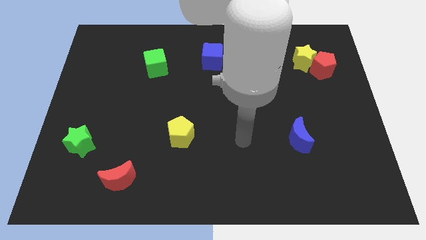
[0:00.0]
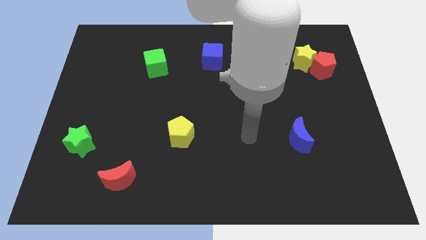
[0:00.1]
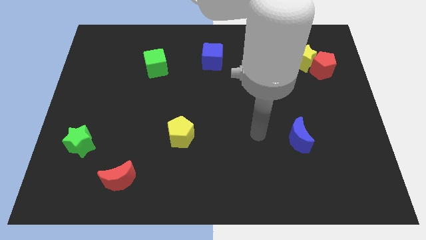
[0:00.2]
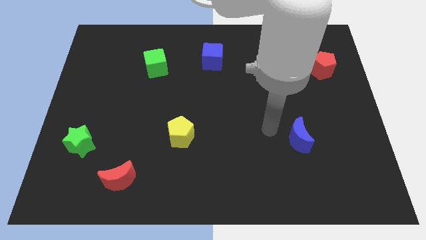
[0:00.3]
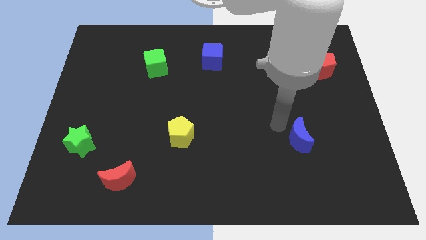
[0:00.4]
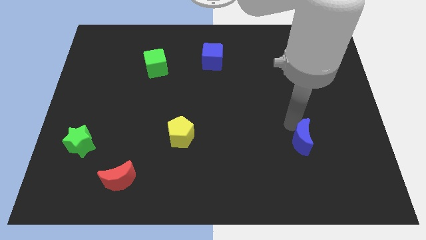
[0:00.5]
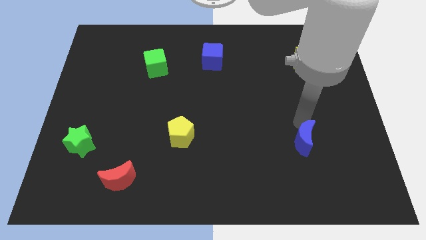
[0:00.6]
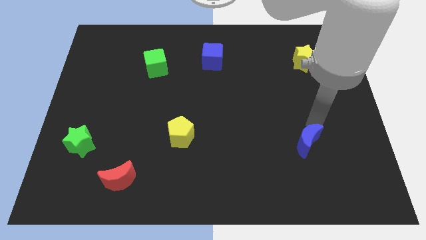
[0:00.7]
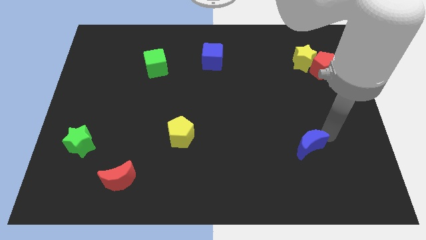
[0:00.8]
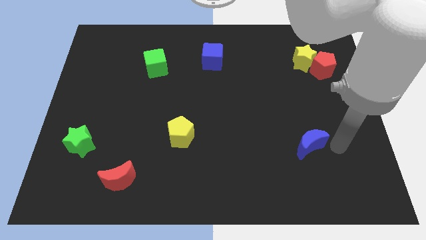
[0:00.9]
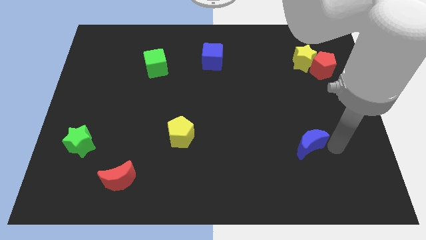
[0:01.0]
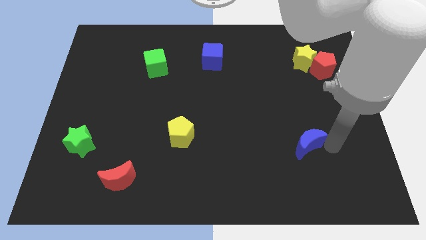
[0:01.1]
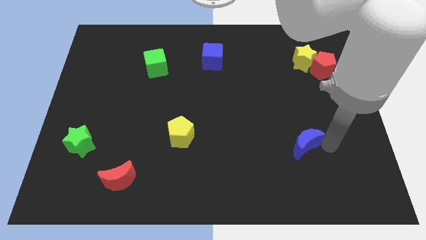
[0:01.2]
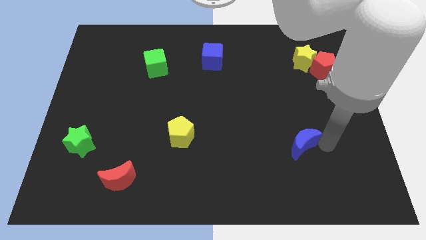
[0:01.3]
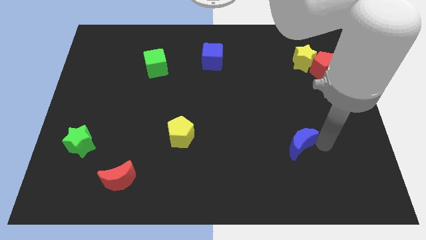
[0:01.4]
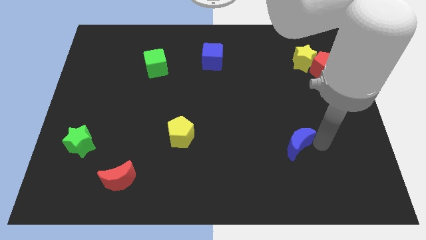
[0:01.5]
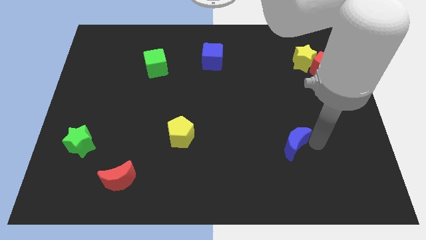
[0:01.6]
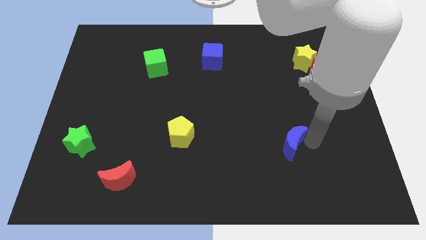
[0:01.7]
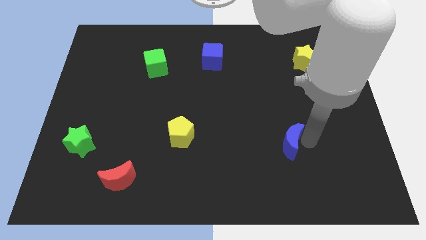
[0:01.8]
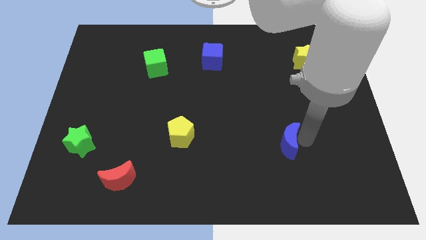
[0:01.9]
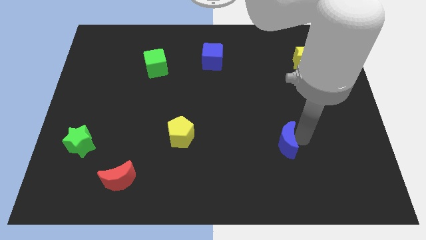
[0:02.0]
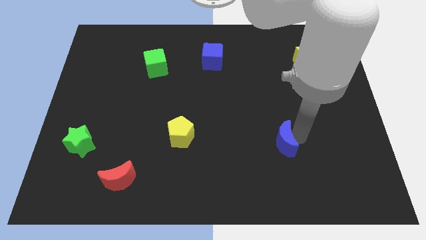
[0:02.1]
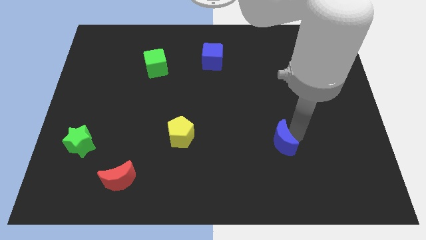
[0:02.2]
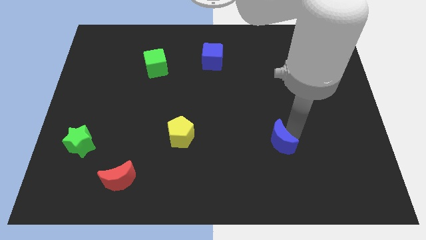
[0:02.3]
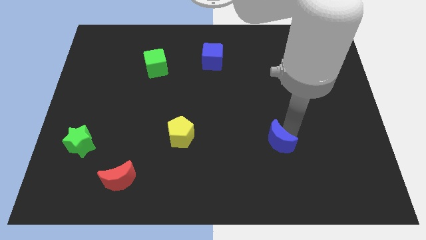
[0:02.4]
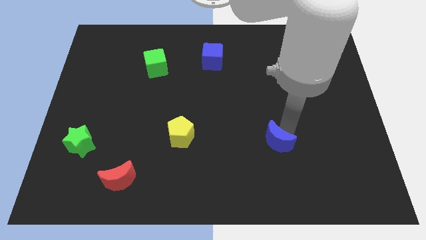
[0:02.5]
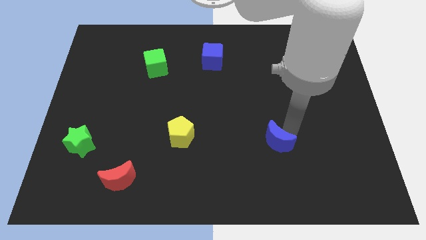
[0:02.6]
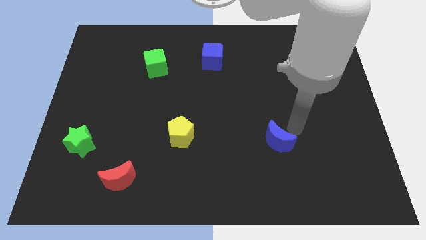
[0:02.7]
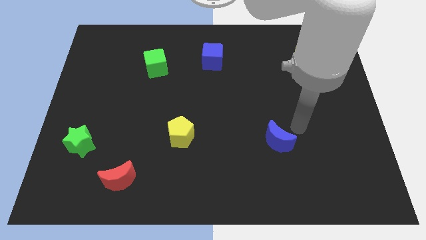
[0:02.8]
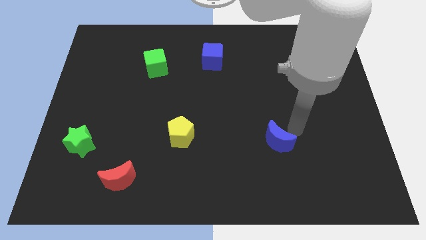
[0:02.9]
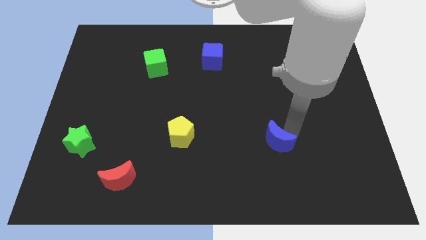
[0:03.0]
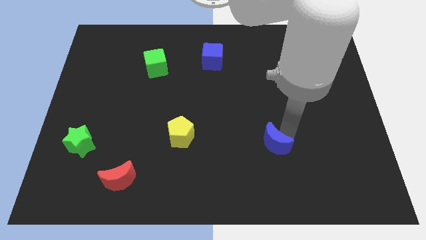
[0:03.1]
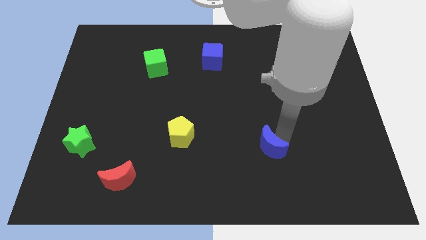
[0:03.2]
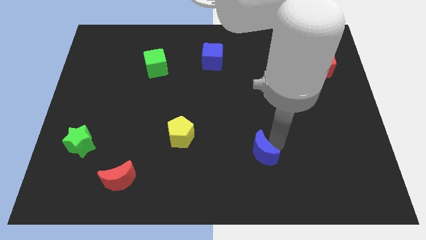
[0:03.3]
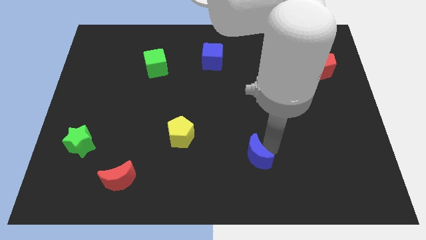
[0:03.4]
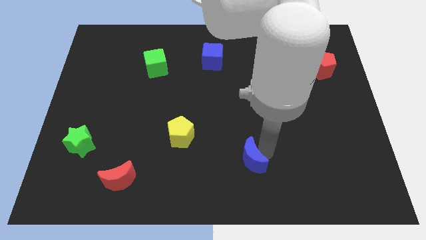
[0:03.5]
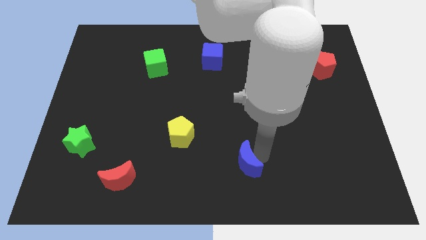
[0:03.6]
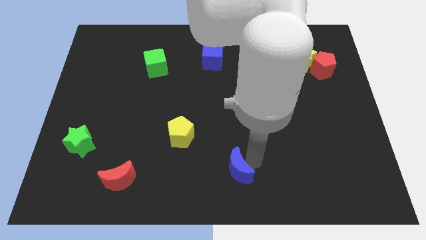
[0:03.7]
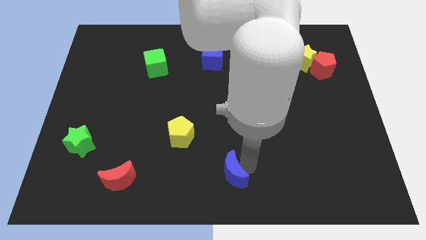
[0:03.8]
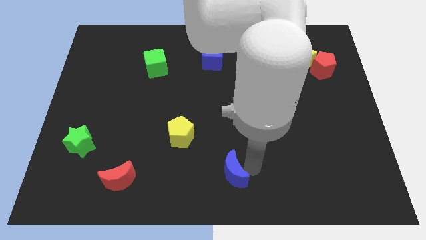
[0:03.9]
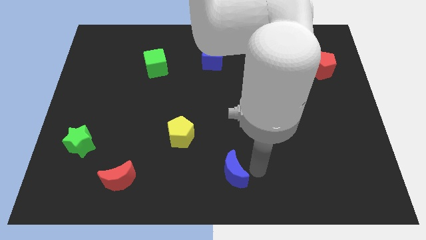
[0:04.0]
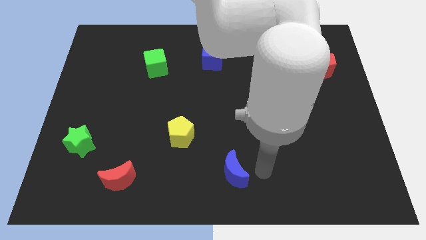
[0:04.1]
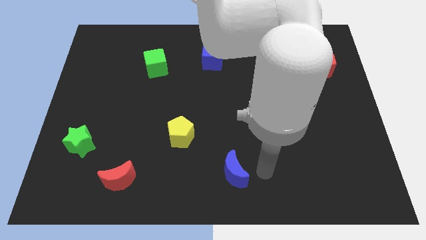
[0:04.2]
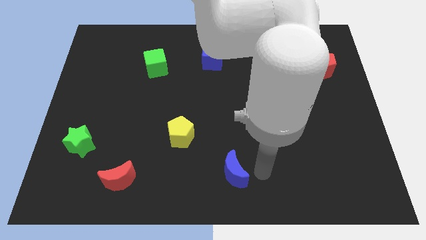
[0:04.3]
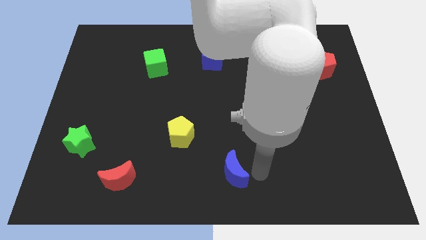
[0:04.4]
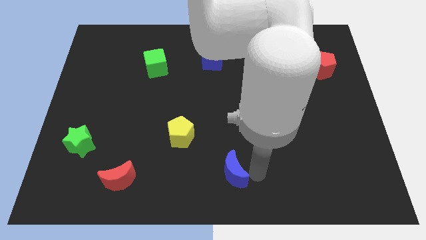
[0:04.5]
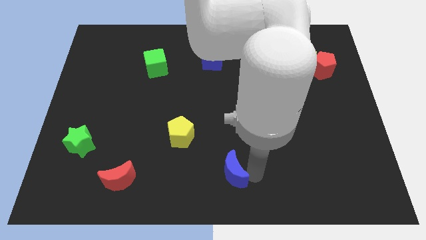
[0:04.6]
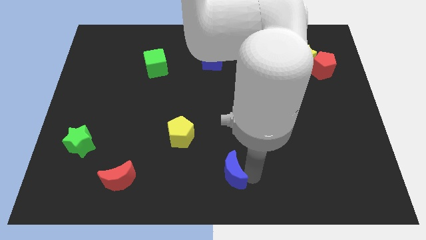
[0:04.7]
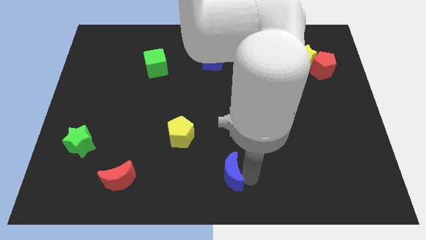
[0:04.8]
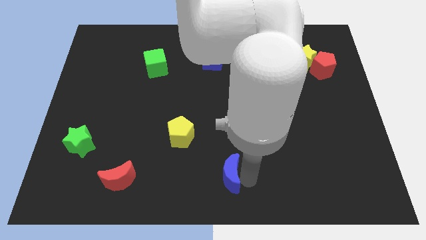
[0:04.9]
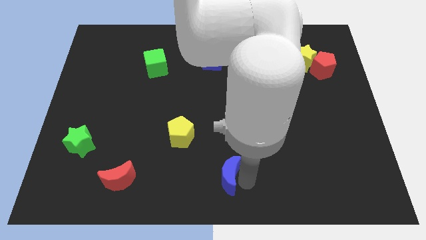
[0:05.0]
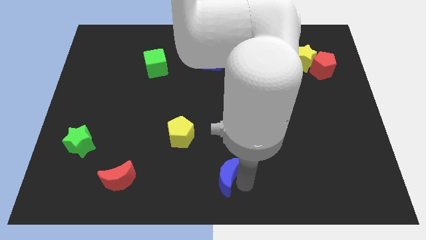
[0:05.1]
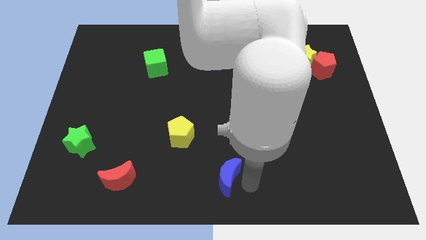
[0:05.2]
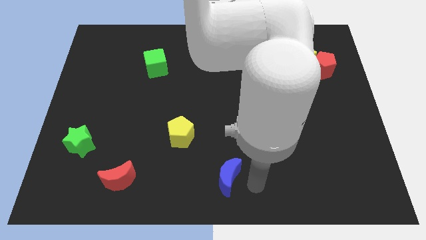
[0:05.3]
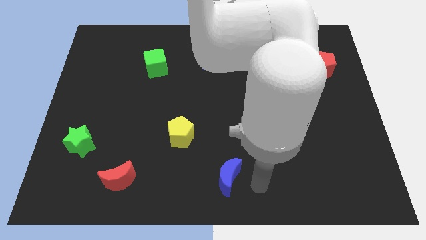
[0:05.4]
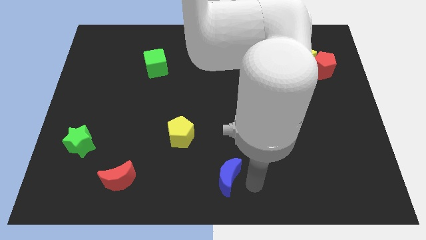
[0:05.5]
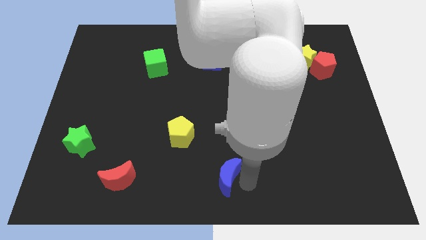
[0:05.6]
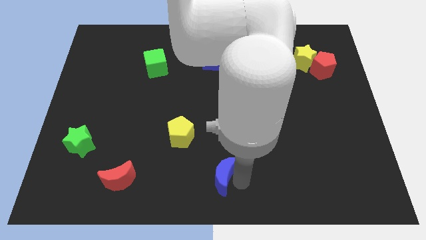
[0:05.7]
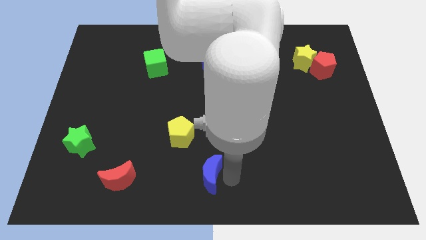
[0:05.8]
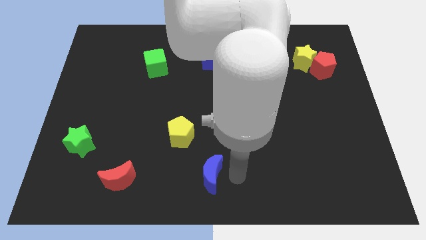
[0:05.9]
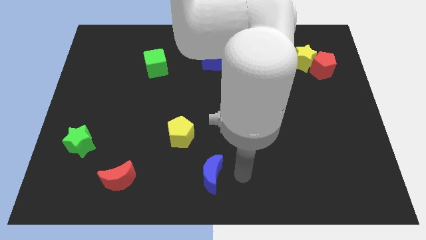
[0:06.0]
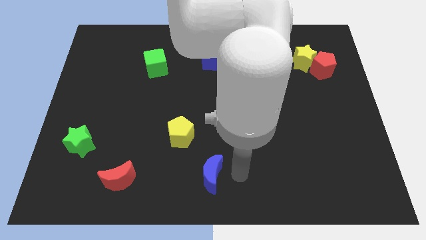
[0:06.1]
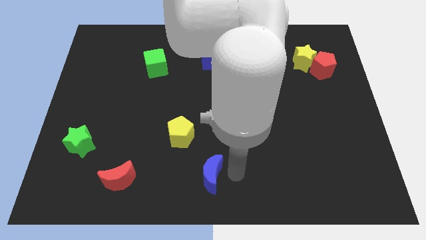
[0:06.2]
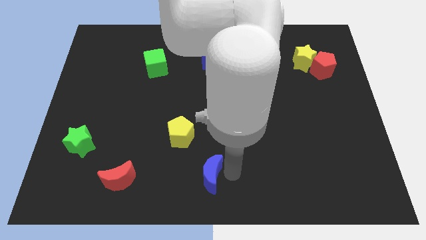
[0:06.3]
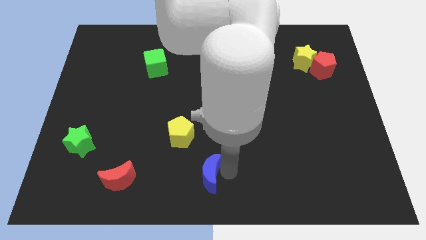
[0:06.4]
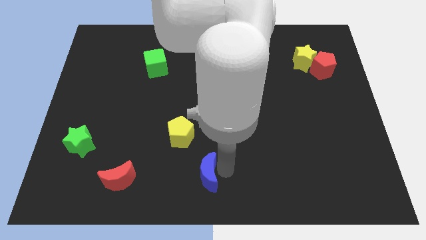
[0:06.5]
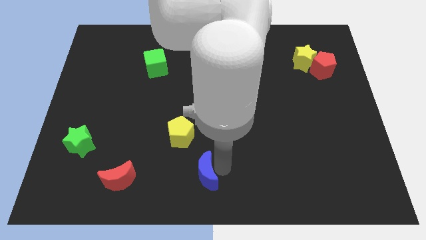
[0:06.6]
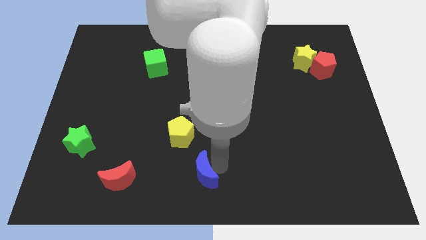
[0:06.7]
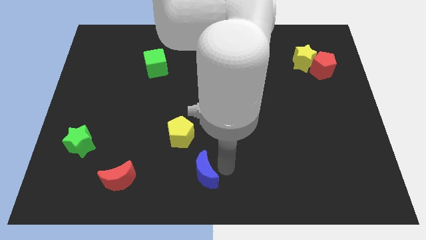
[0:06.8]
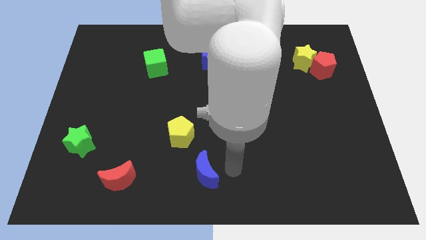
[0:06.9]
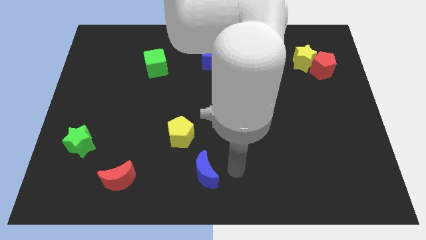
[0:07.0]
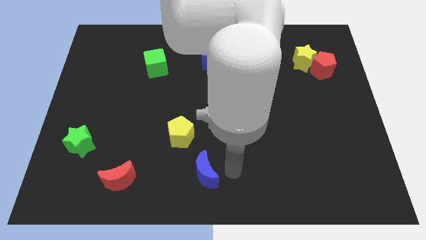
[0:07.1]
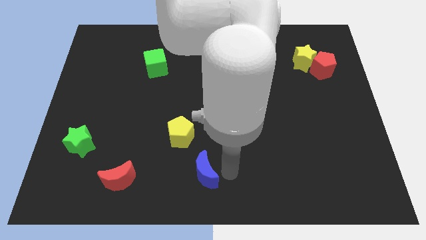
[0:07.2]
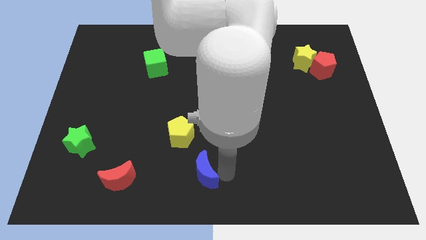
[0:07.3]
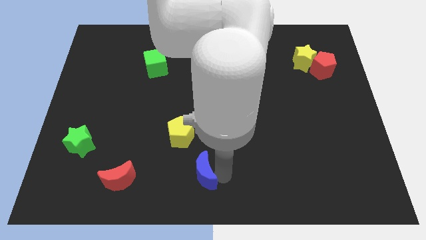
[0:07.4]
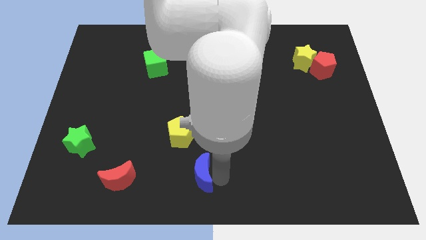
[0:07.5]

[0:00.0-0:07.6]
move the blue moon below the yellow pentagon
